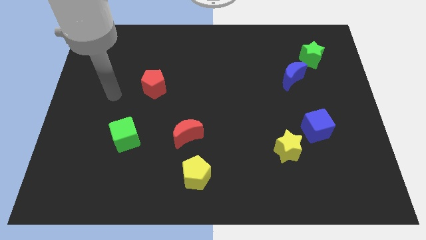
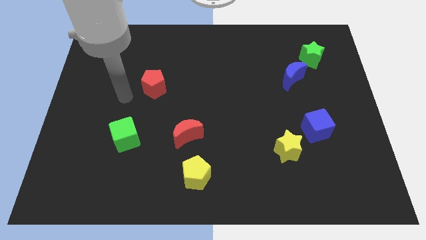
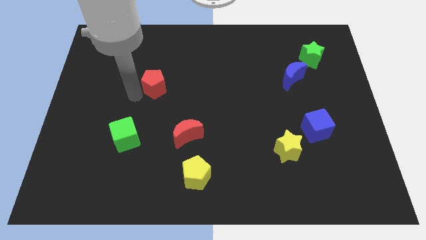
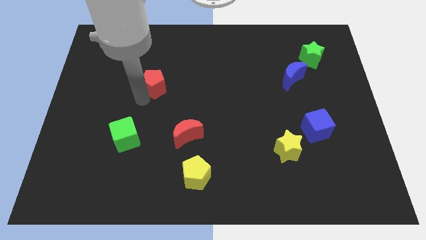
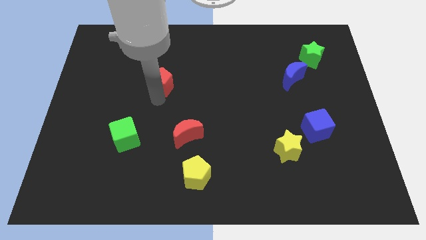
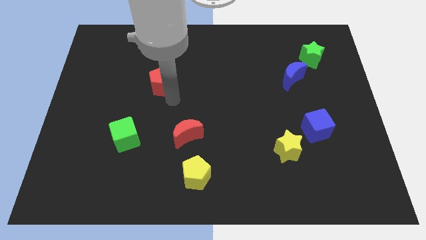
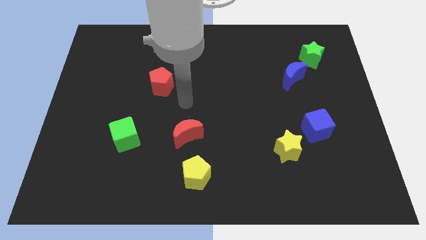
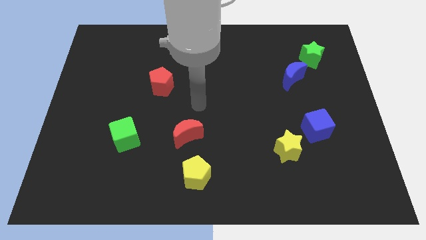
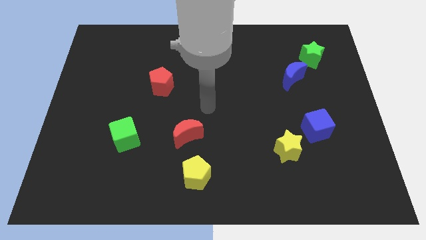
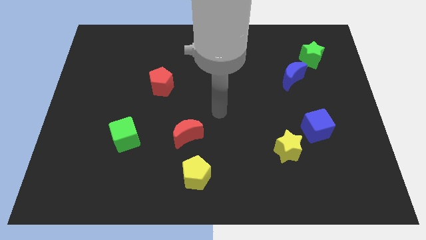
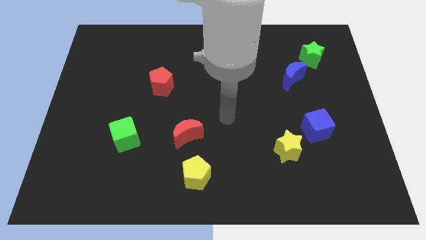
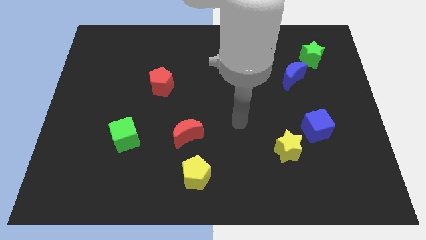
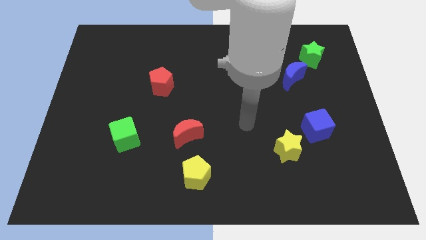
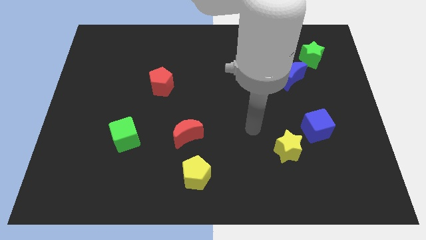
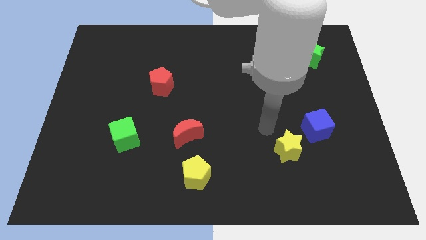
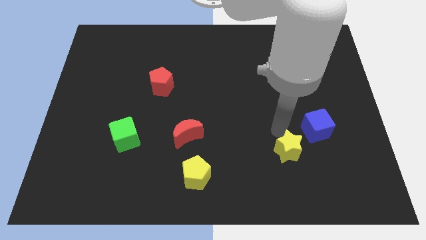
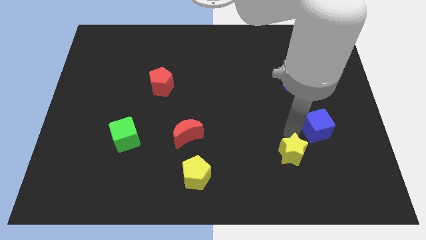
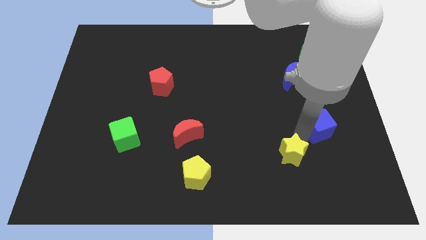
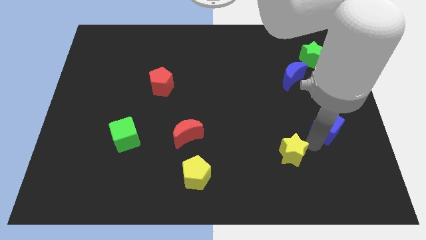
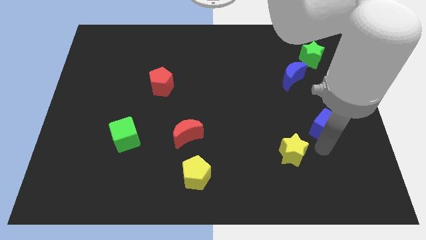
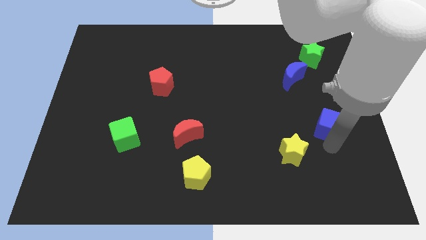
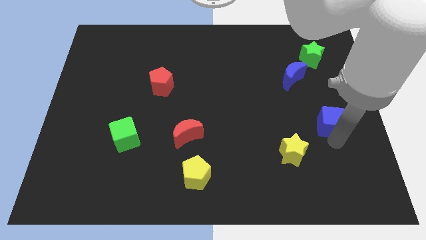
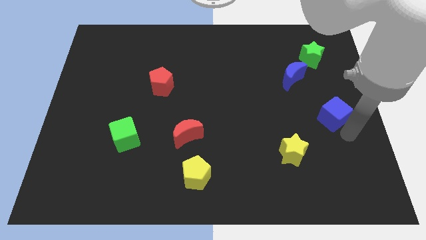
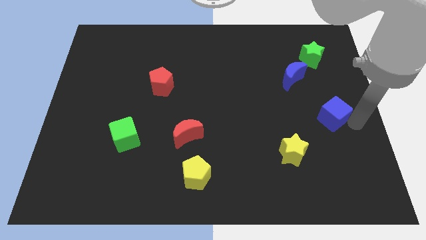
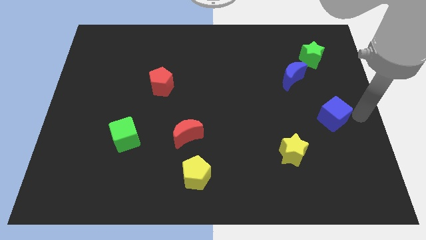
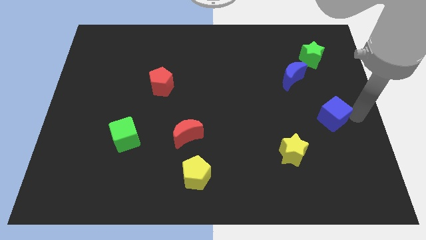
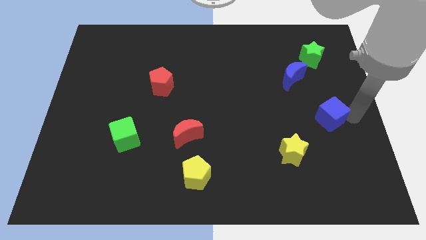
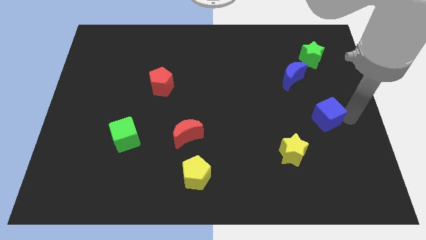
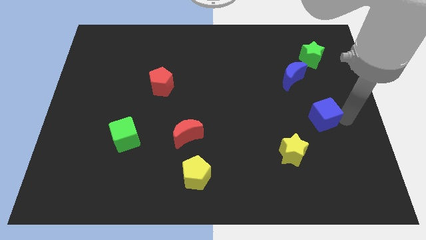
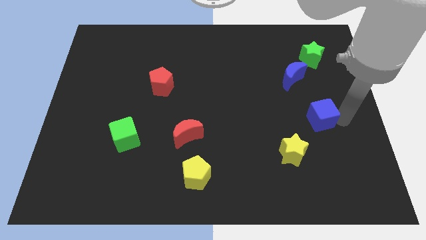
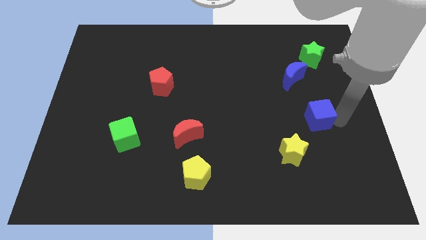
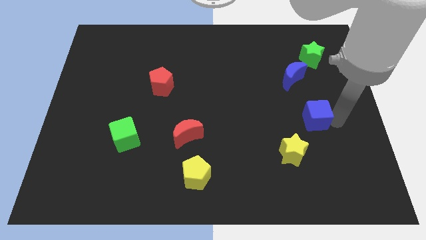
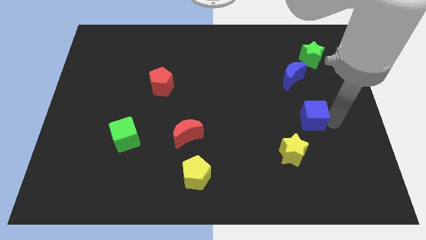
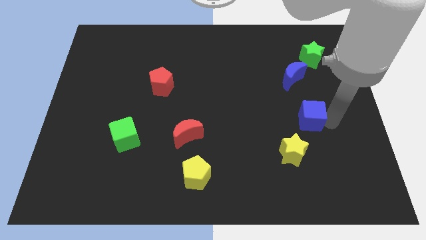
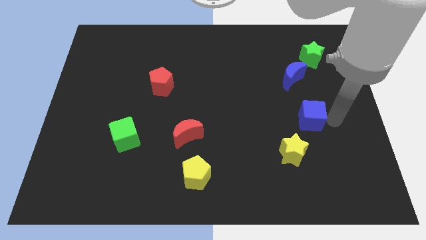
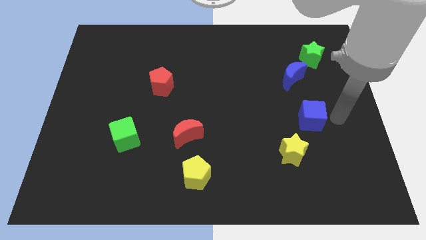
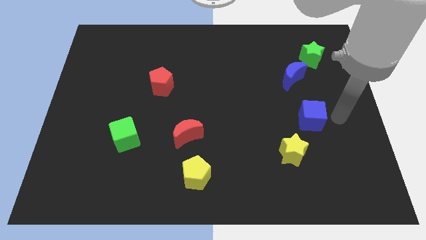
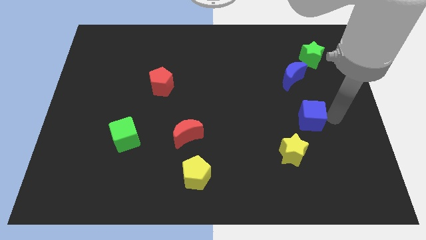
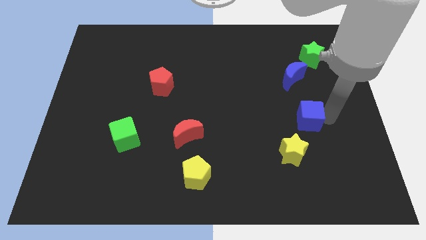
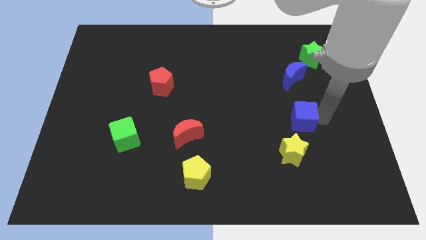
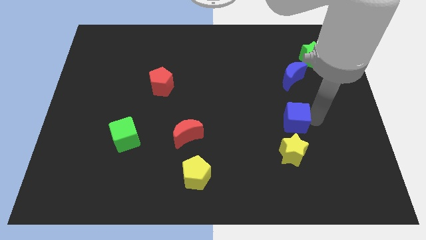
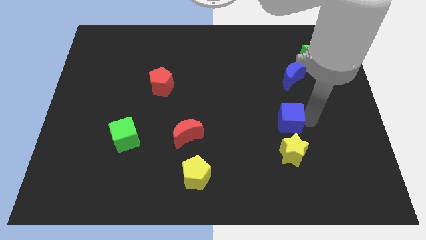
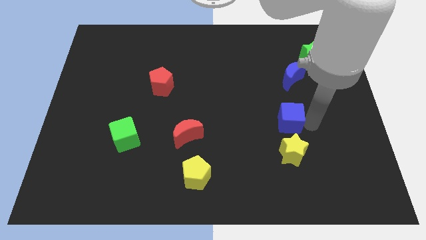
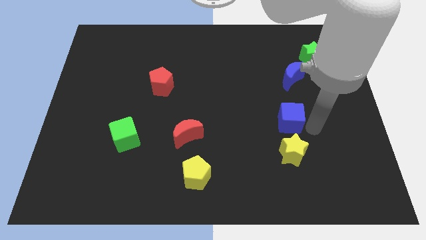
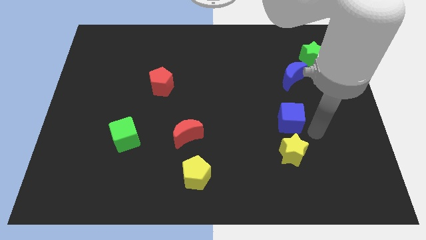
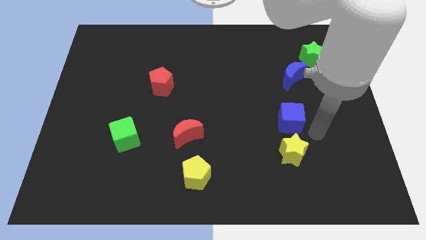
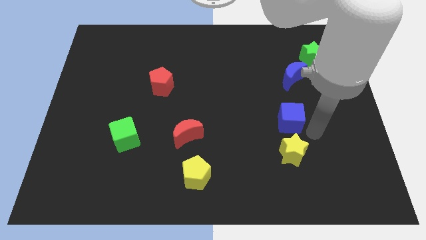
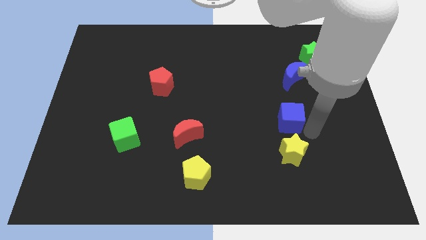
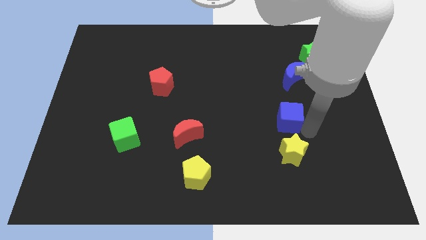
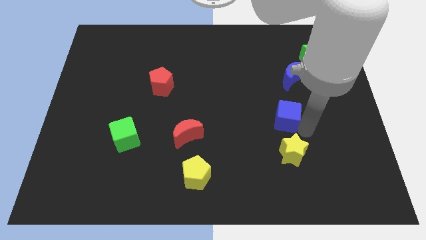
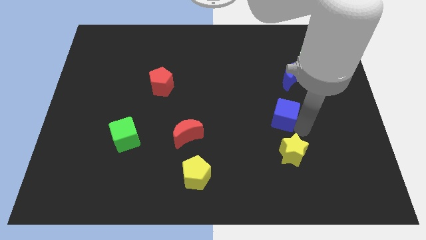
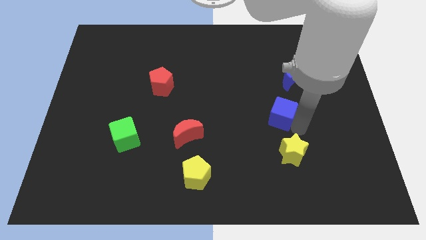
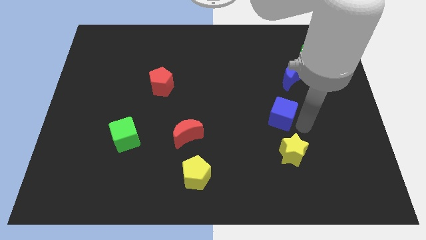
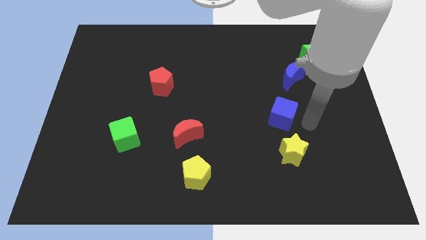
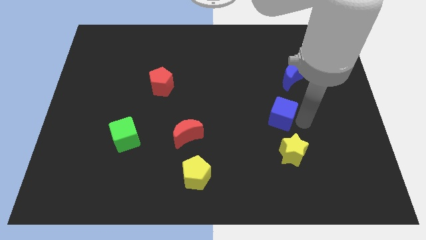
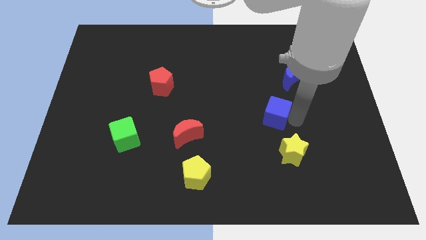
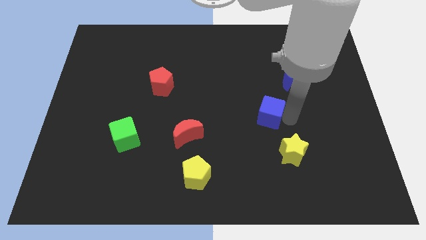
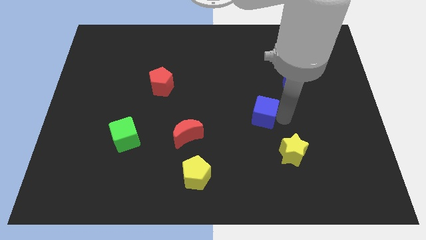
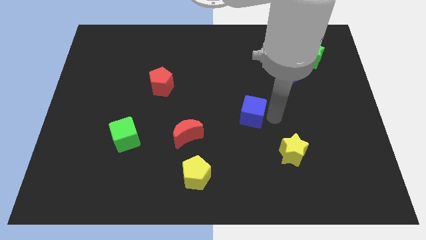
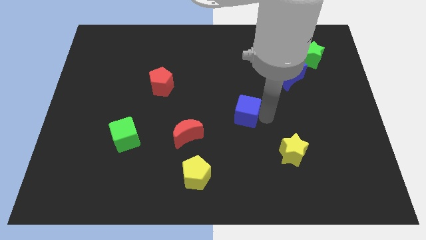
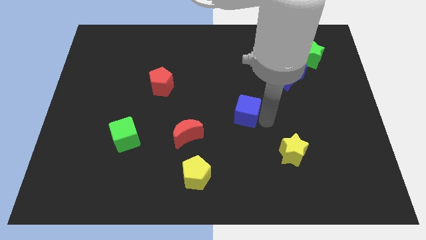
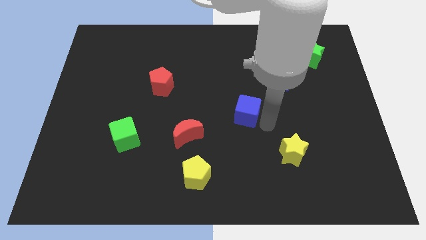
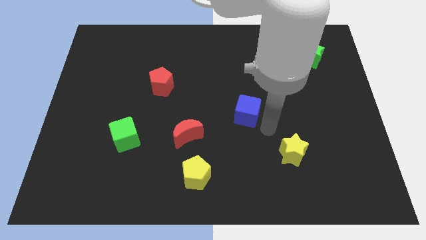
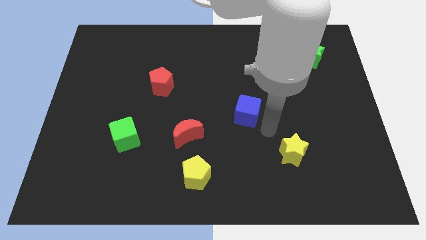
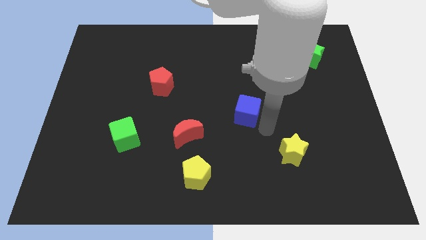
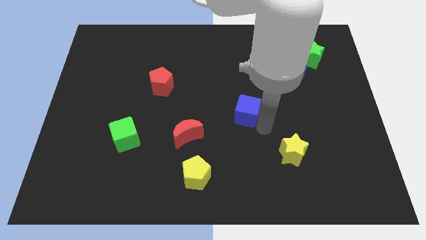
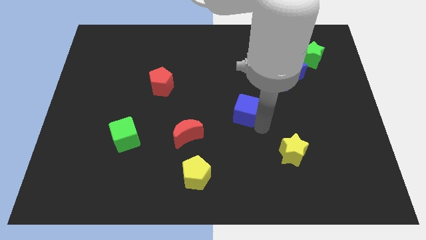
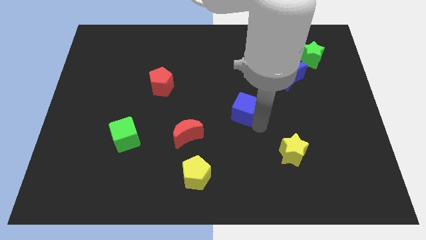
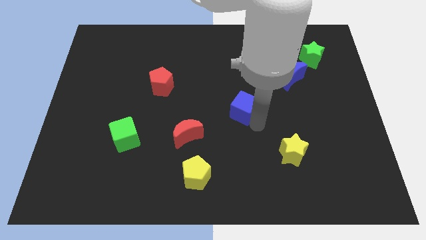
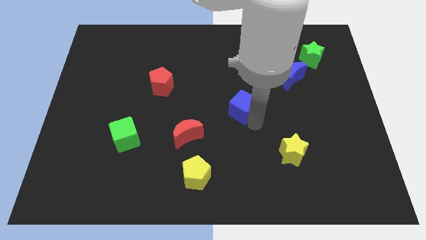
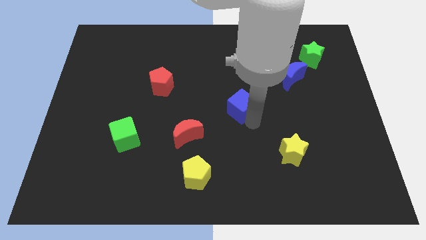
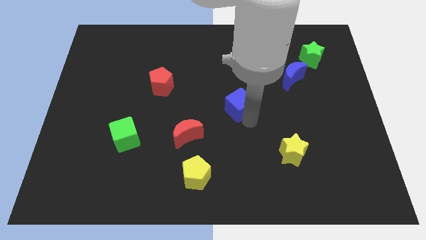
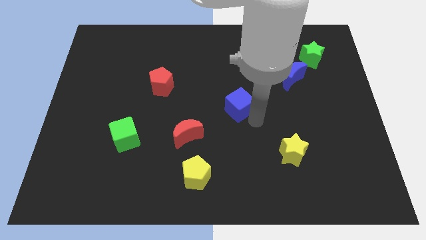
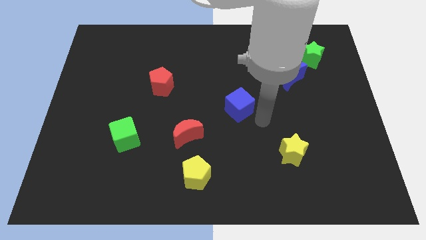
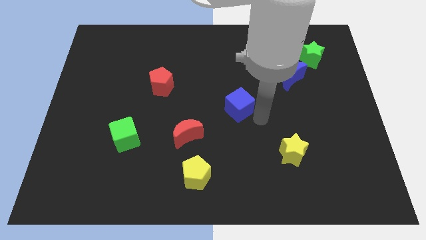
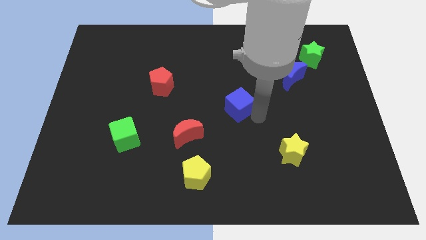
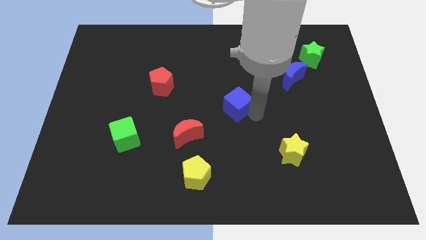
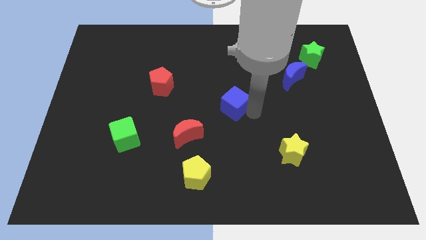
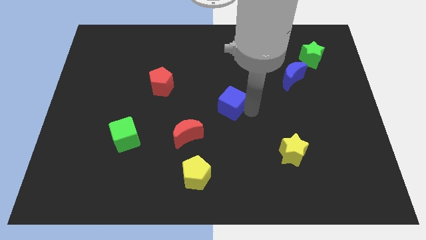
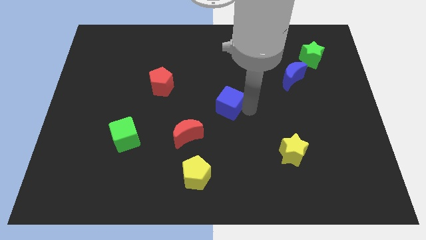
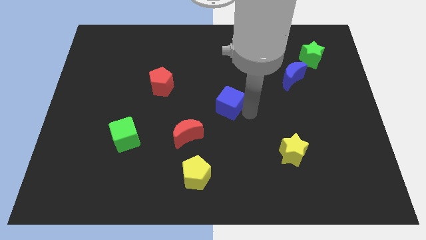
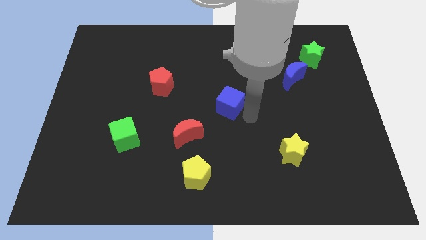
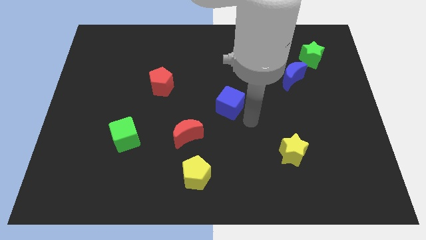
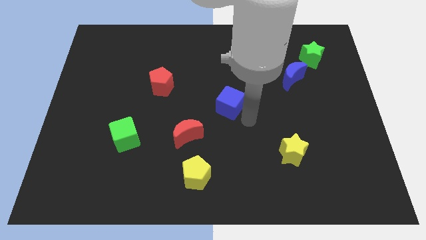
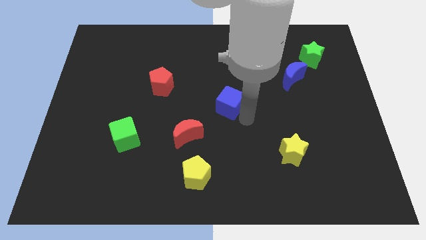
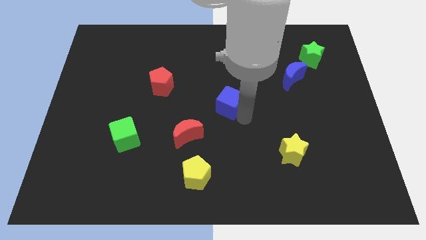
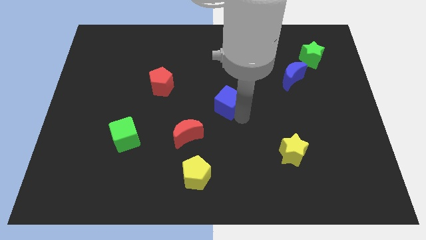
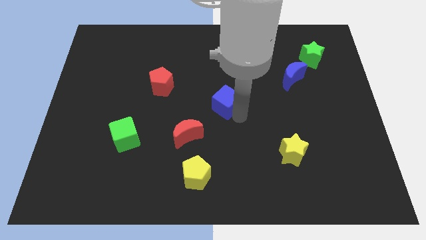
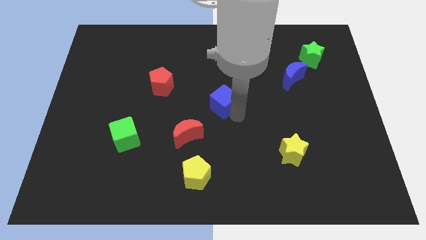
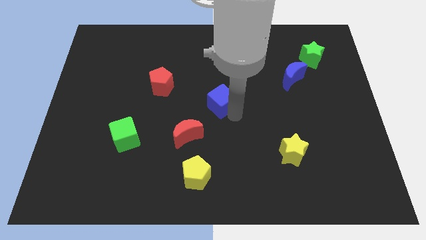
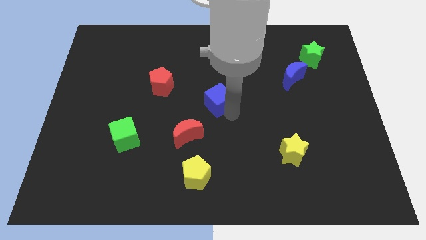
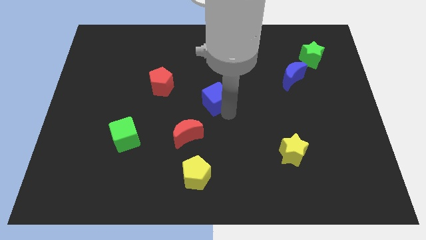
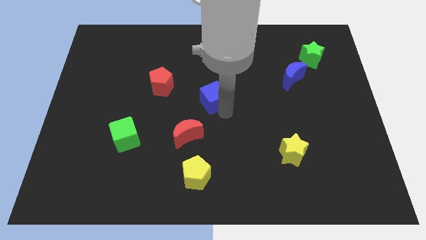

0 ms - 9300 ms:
put the blue cube right of the red pentagon
